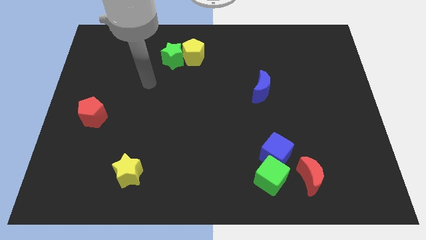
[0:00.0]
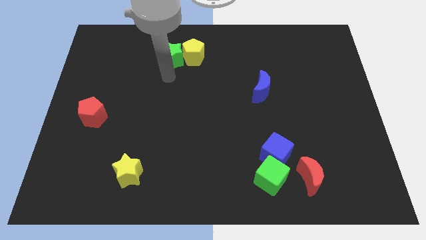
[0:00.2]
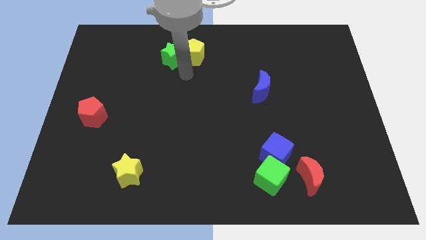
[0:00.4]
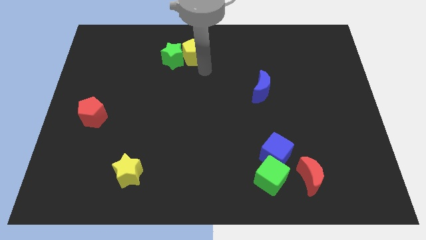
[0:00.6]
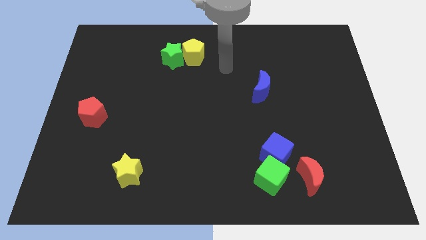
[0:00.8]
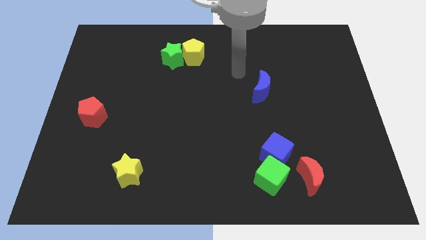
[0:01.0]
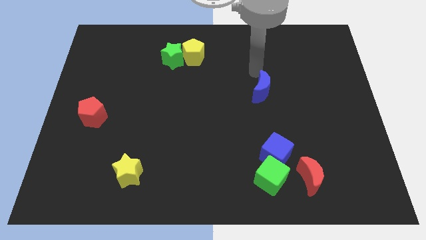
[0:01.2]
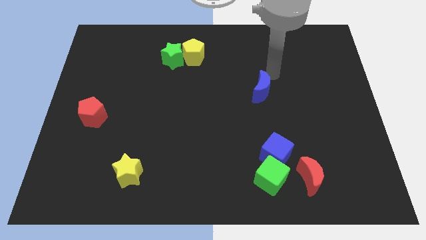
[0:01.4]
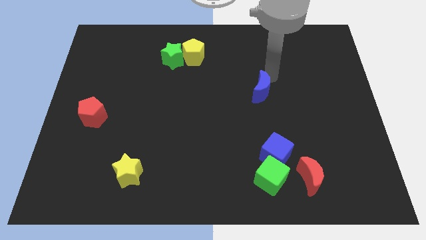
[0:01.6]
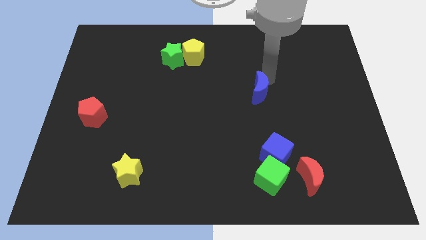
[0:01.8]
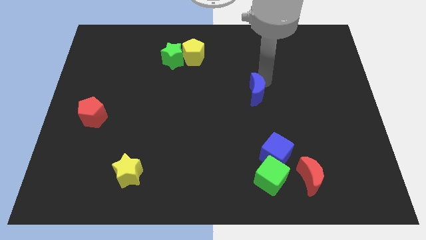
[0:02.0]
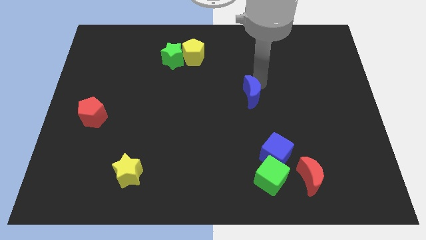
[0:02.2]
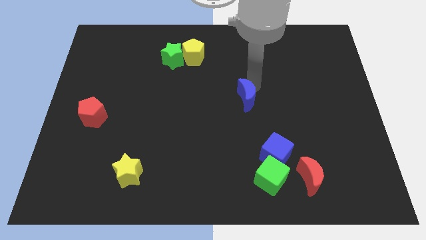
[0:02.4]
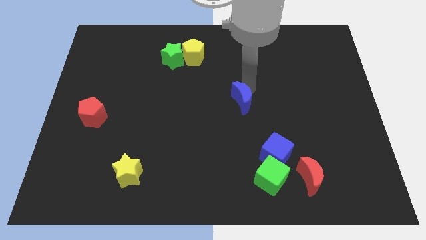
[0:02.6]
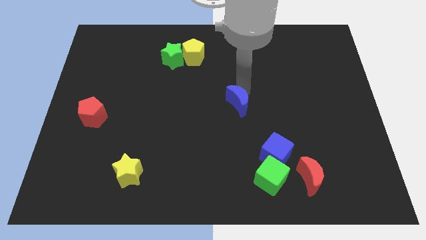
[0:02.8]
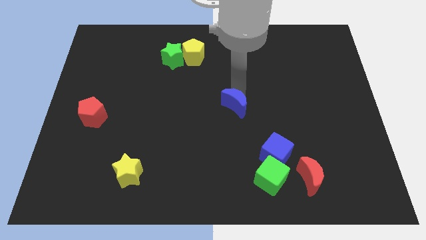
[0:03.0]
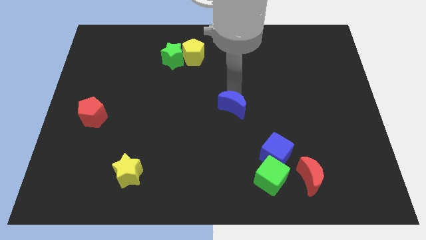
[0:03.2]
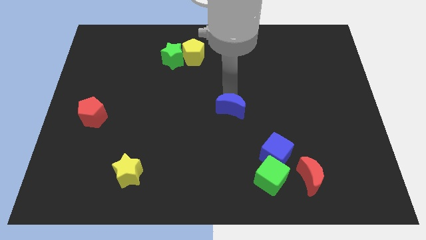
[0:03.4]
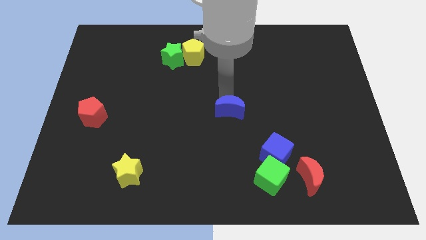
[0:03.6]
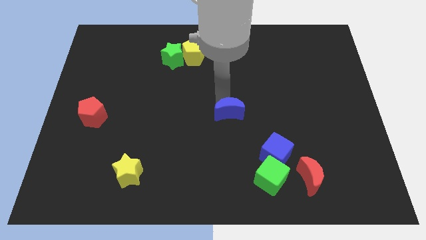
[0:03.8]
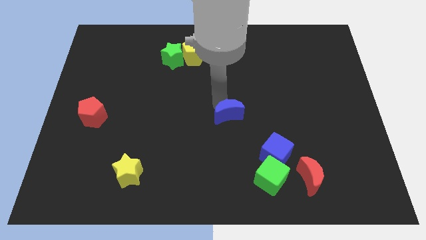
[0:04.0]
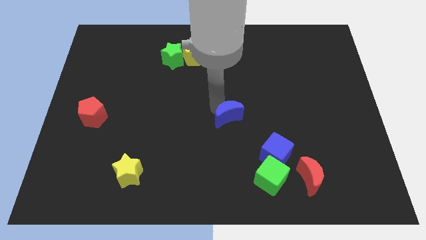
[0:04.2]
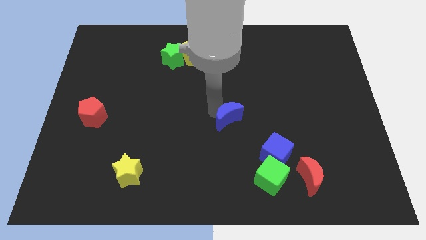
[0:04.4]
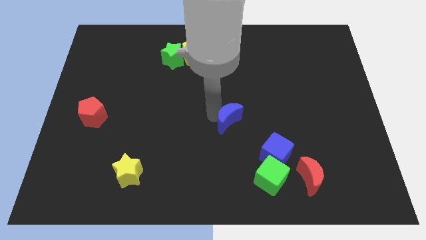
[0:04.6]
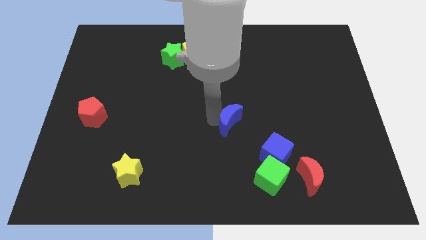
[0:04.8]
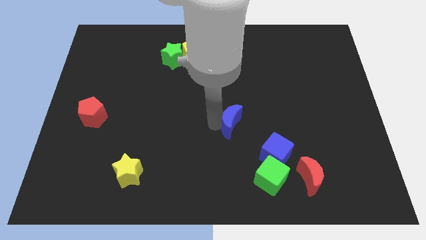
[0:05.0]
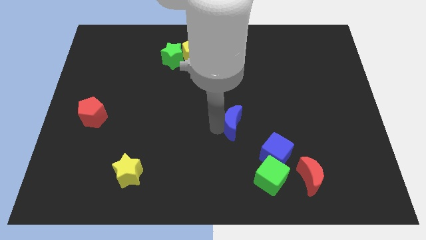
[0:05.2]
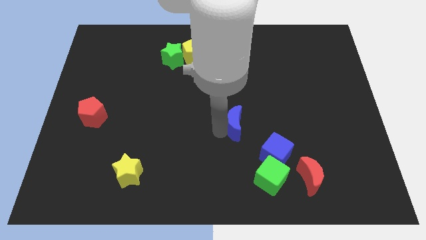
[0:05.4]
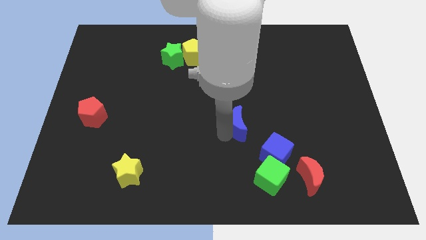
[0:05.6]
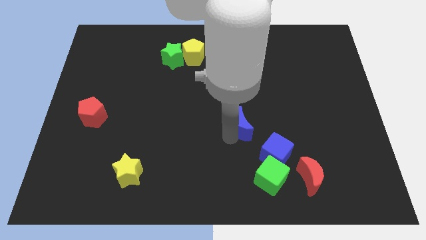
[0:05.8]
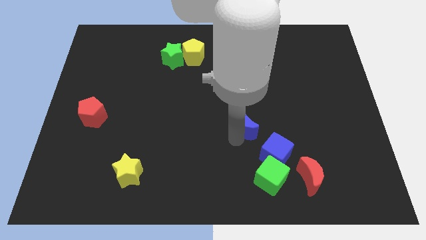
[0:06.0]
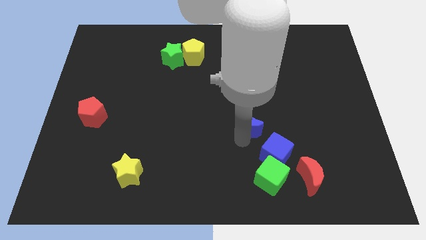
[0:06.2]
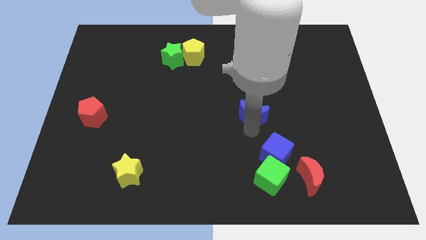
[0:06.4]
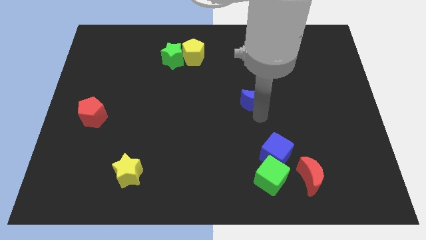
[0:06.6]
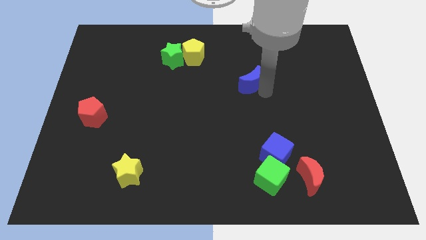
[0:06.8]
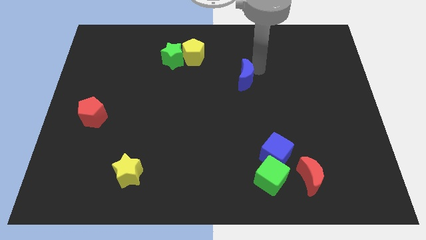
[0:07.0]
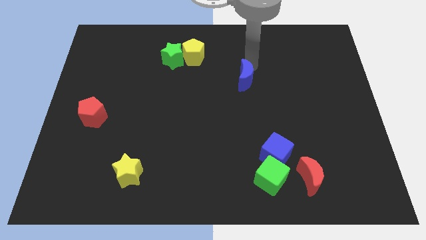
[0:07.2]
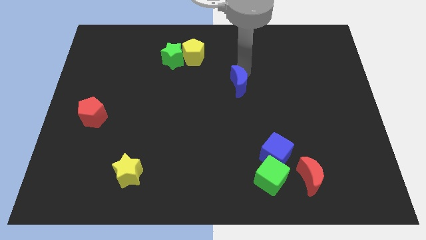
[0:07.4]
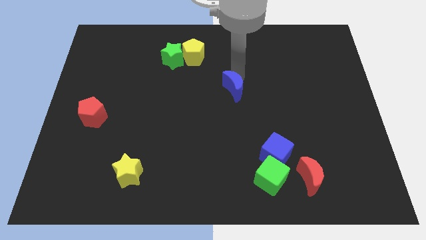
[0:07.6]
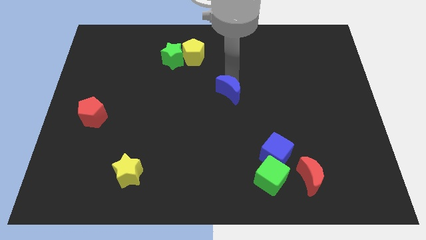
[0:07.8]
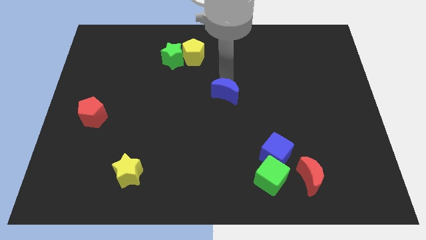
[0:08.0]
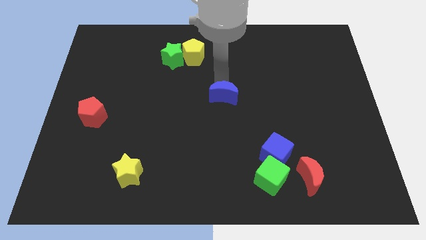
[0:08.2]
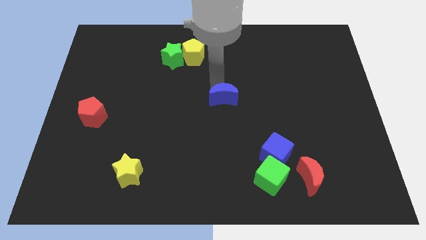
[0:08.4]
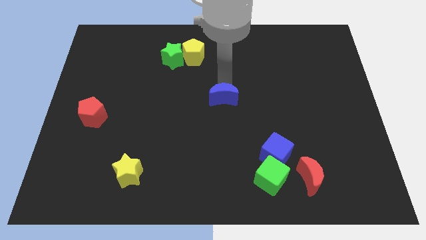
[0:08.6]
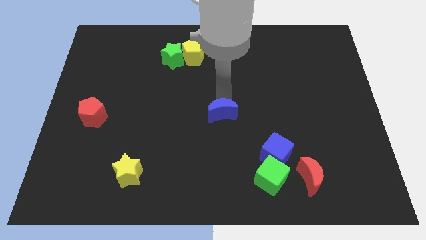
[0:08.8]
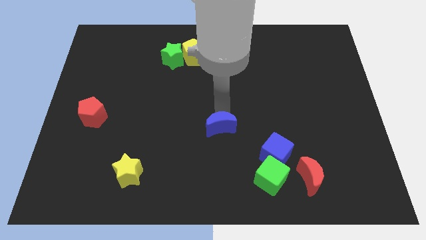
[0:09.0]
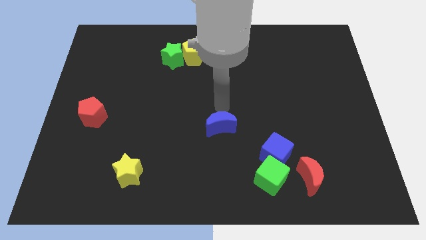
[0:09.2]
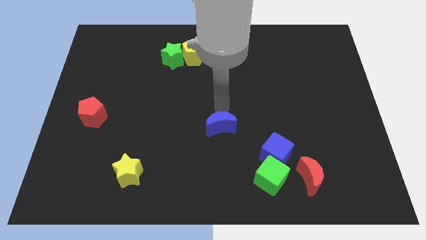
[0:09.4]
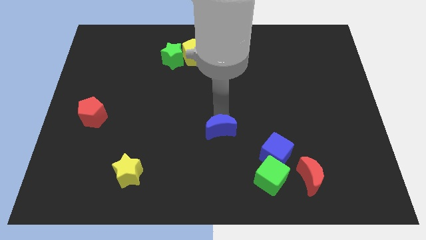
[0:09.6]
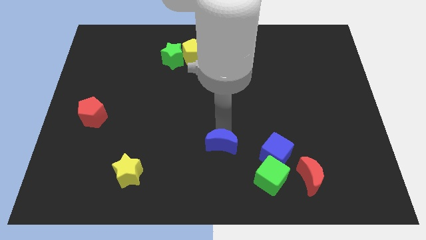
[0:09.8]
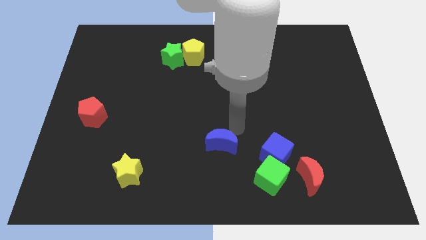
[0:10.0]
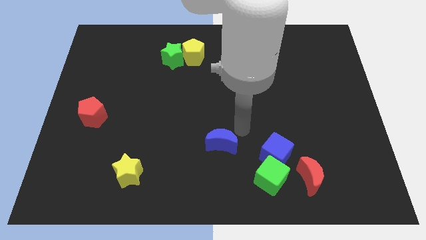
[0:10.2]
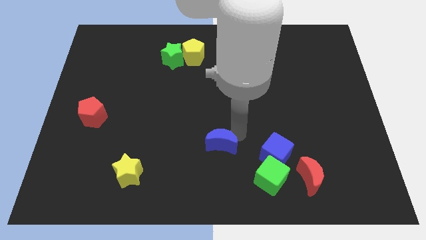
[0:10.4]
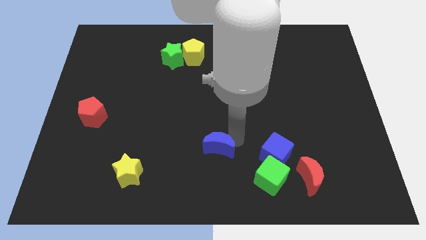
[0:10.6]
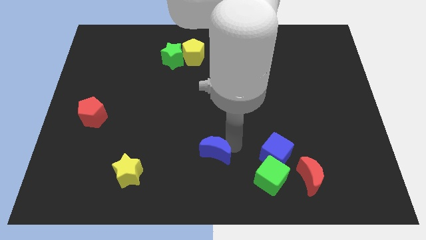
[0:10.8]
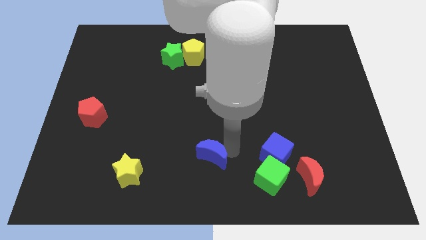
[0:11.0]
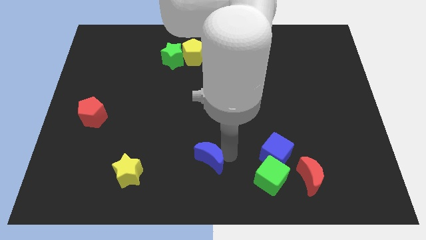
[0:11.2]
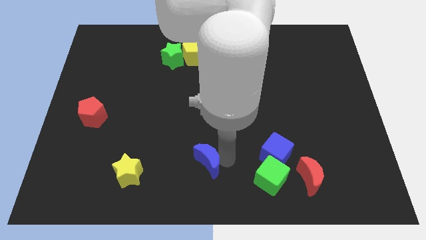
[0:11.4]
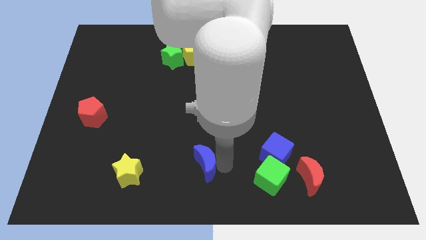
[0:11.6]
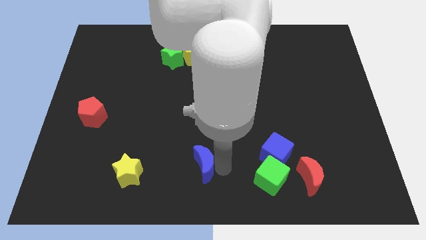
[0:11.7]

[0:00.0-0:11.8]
put the blue moon to the right side of the yellow star

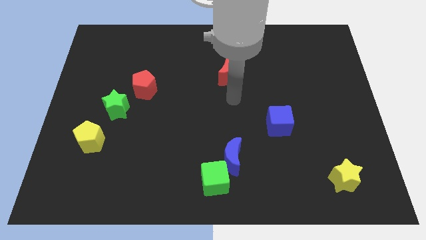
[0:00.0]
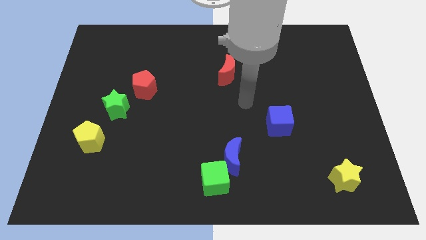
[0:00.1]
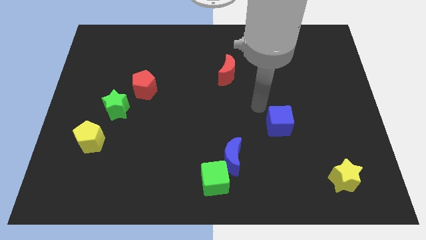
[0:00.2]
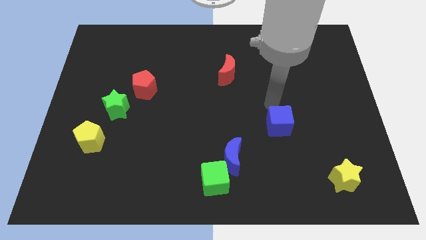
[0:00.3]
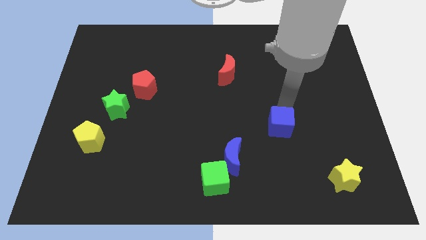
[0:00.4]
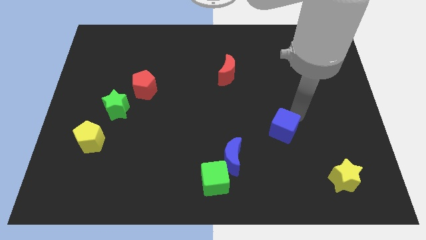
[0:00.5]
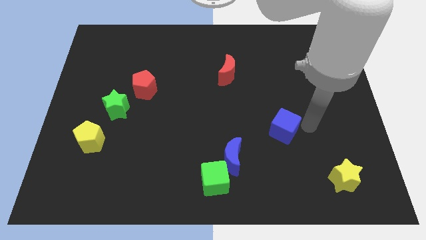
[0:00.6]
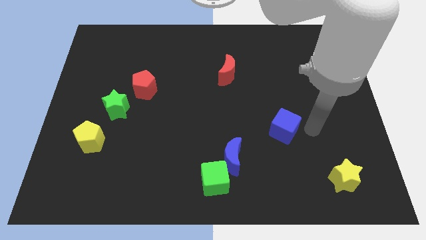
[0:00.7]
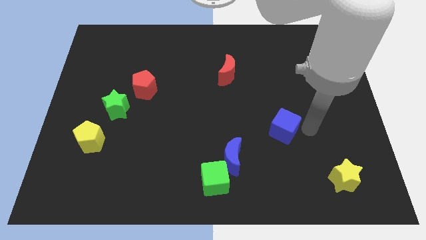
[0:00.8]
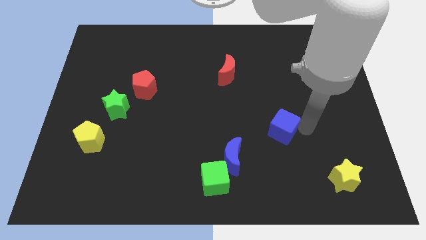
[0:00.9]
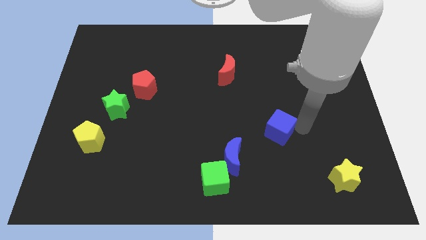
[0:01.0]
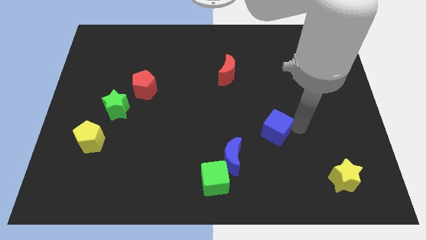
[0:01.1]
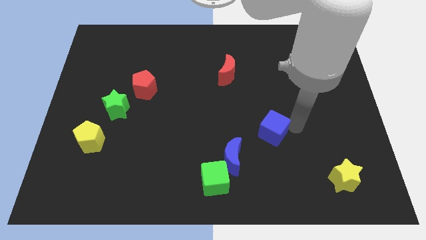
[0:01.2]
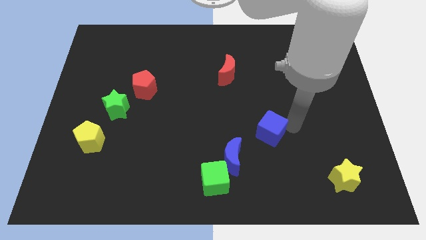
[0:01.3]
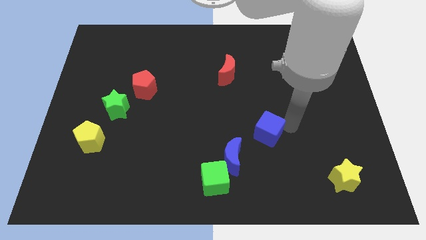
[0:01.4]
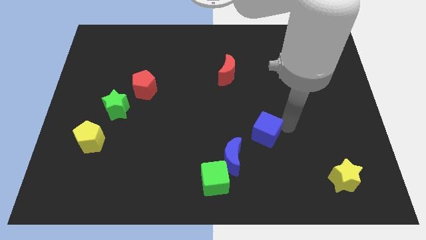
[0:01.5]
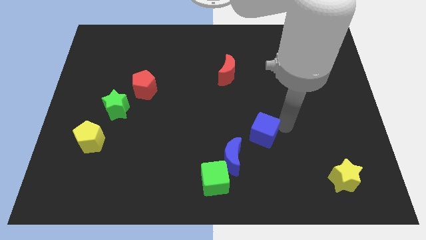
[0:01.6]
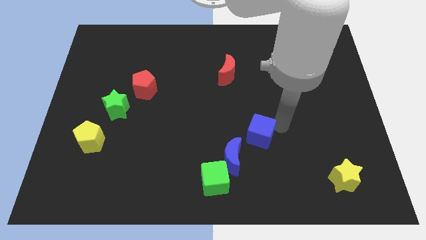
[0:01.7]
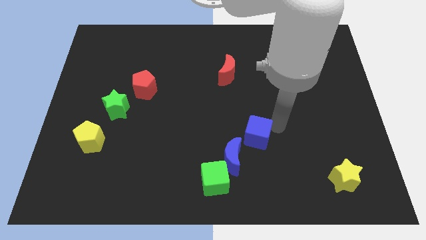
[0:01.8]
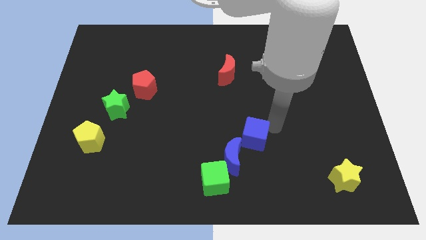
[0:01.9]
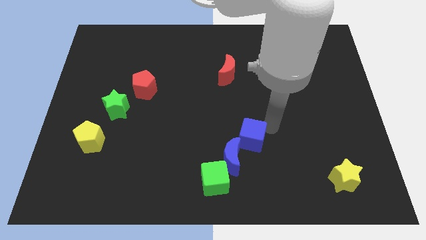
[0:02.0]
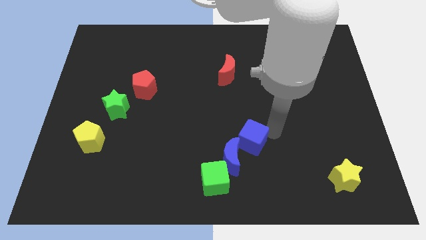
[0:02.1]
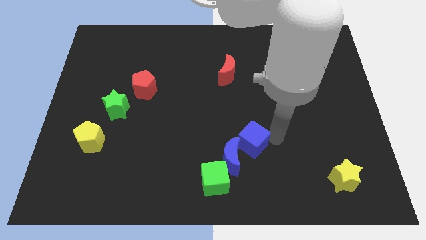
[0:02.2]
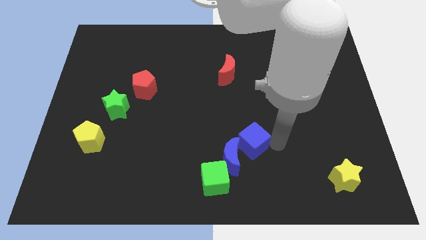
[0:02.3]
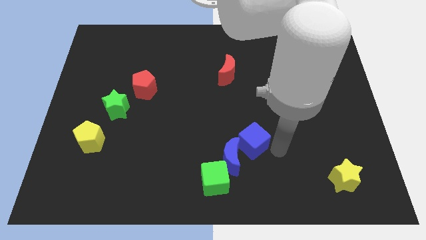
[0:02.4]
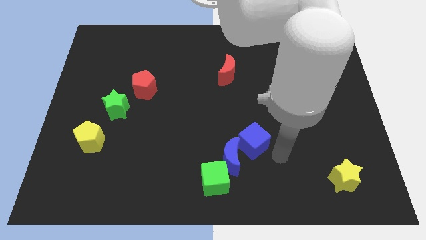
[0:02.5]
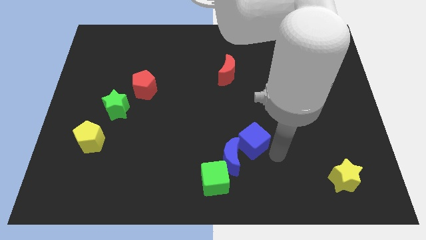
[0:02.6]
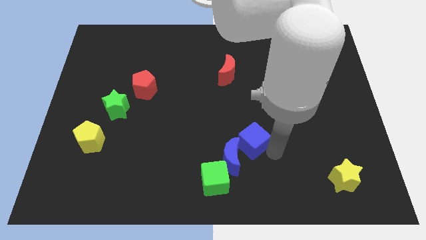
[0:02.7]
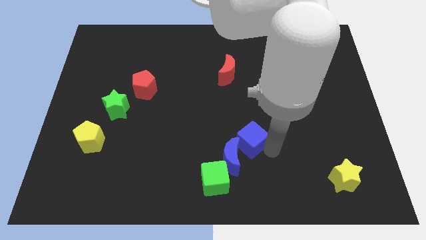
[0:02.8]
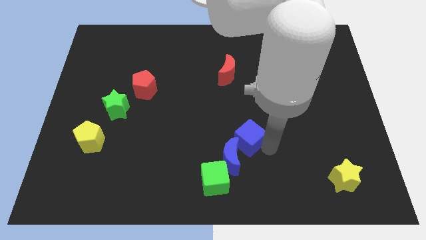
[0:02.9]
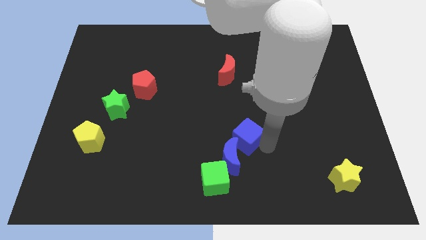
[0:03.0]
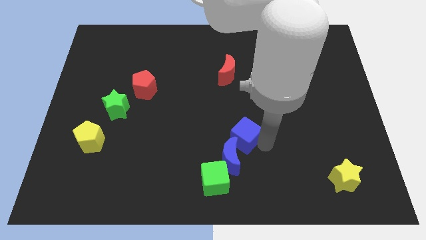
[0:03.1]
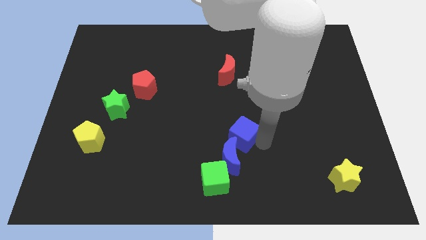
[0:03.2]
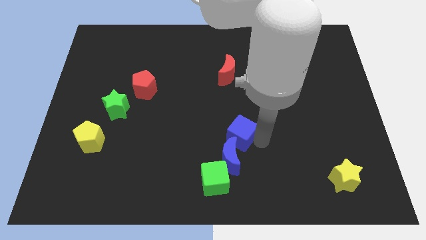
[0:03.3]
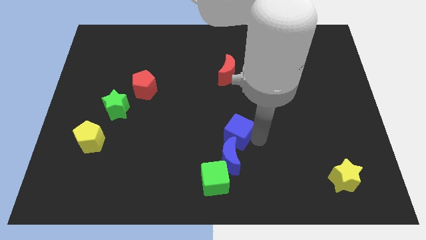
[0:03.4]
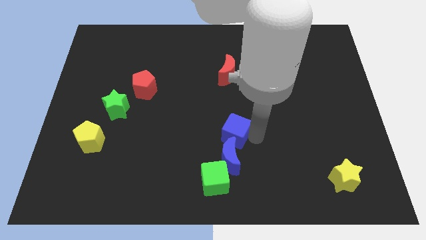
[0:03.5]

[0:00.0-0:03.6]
put the blue cube to the top side of the green cube
